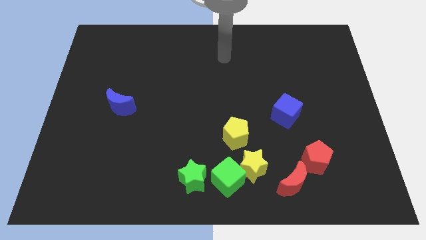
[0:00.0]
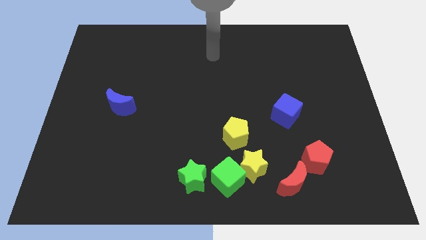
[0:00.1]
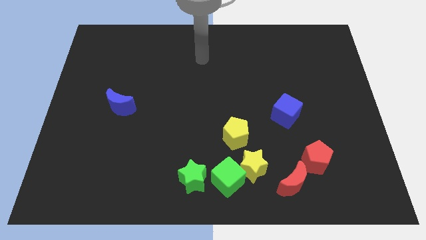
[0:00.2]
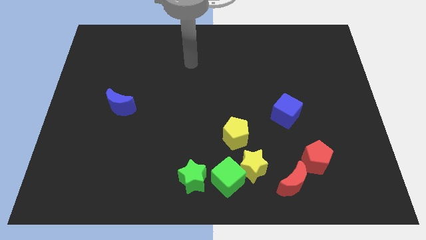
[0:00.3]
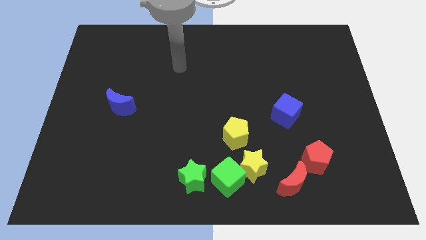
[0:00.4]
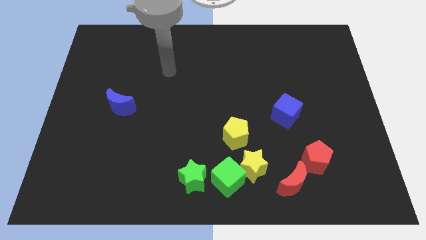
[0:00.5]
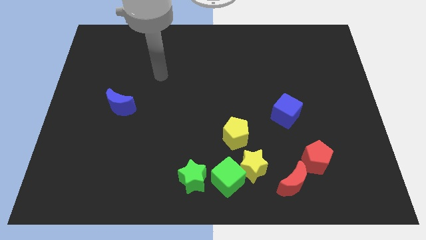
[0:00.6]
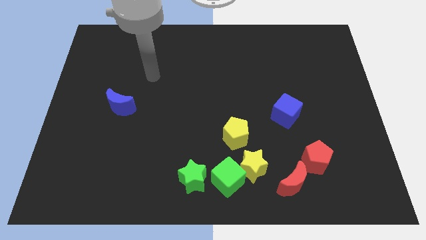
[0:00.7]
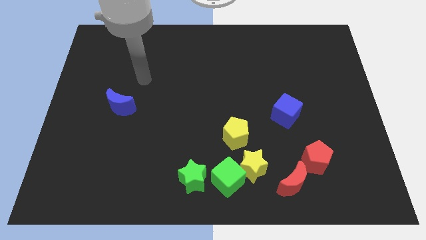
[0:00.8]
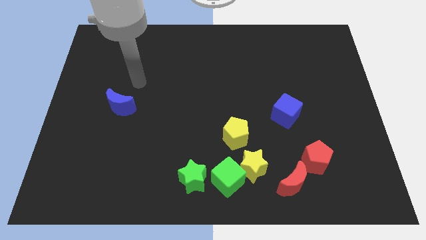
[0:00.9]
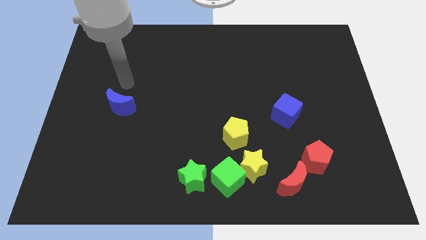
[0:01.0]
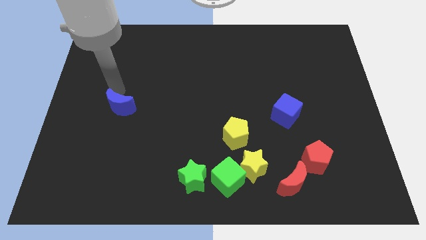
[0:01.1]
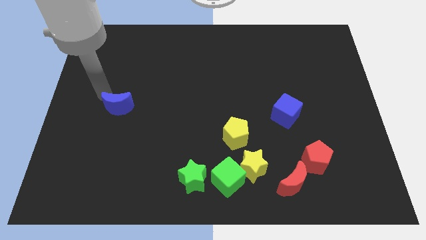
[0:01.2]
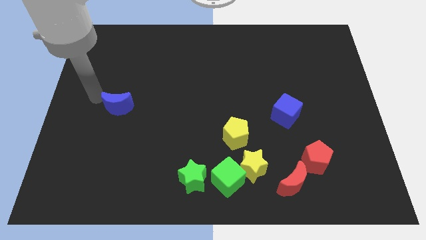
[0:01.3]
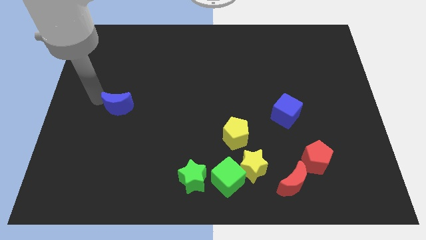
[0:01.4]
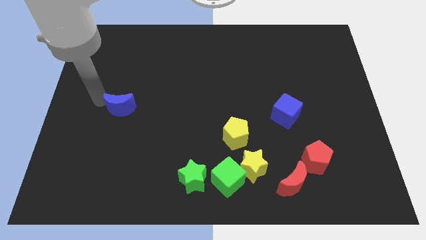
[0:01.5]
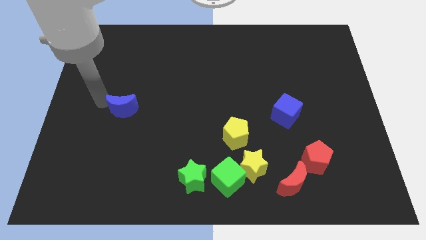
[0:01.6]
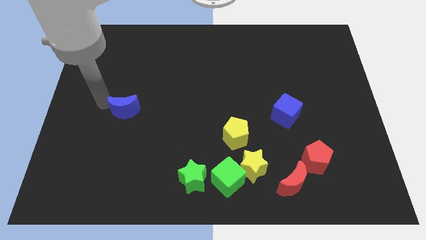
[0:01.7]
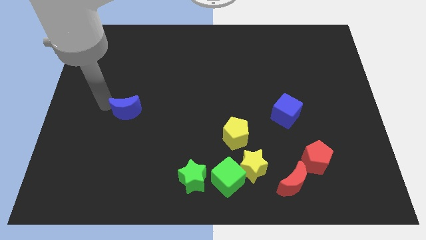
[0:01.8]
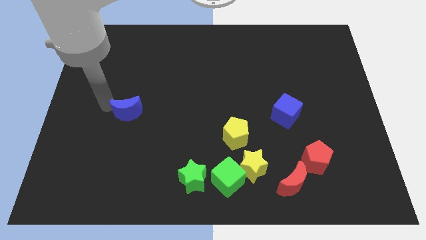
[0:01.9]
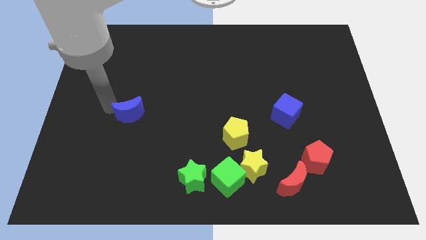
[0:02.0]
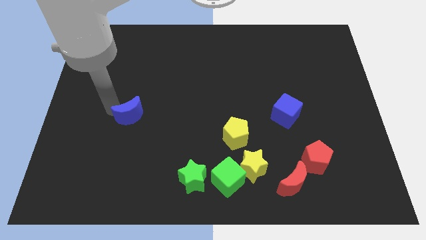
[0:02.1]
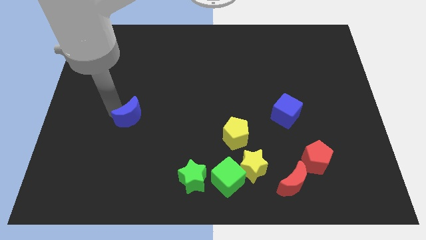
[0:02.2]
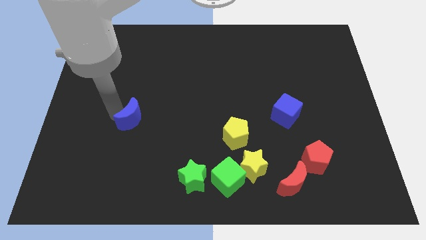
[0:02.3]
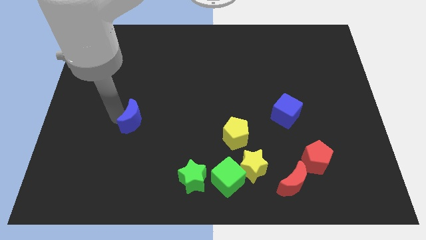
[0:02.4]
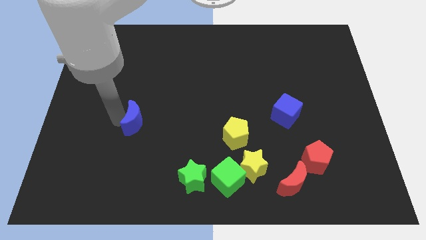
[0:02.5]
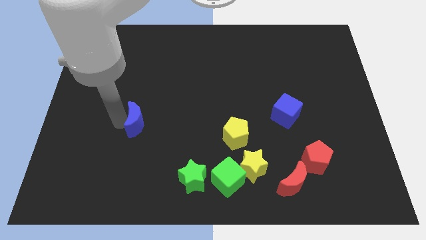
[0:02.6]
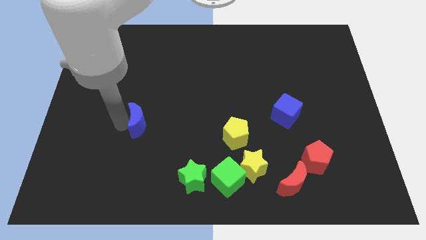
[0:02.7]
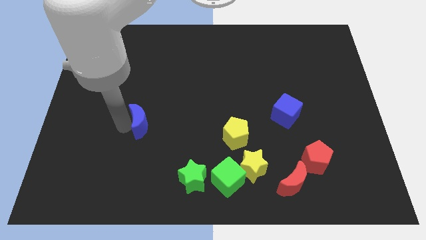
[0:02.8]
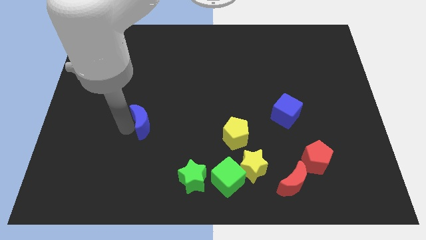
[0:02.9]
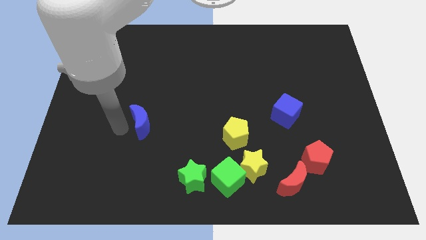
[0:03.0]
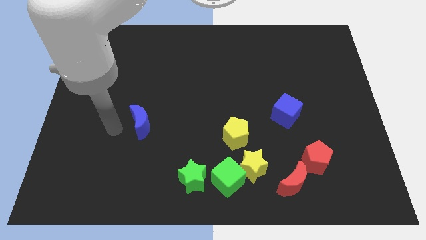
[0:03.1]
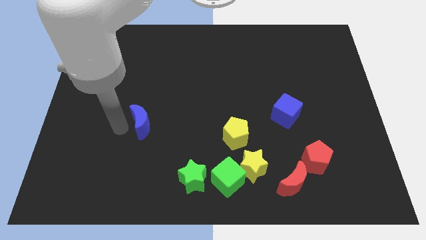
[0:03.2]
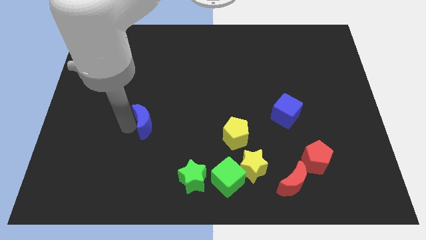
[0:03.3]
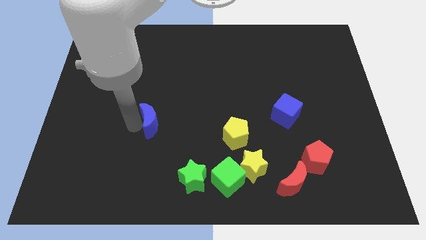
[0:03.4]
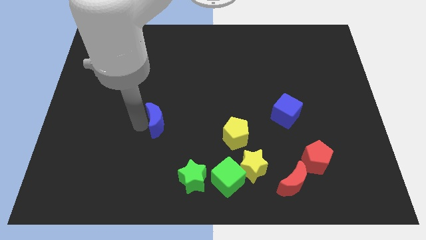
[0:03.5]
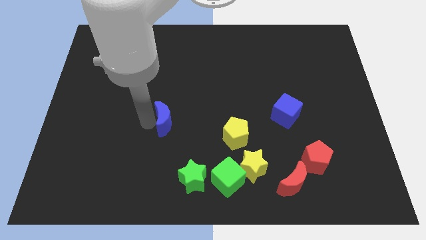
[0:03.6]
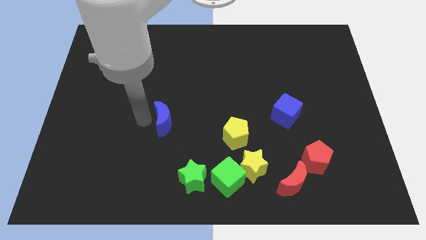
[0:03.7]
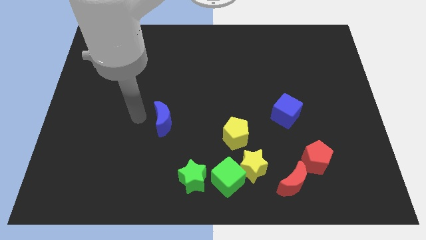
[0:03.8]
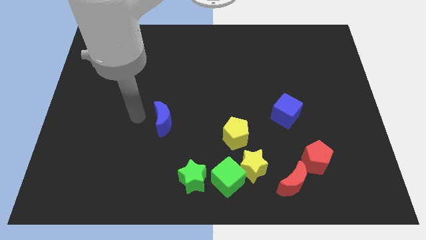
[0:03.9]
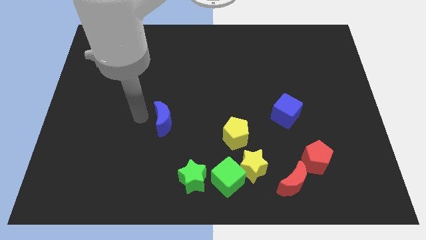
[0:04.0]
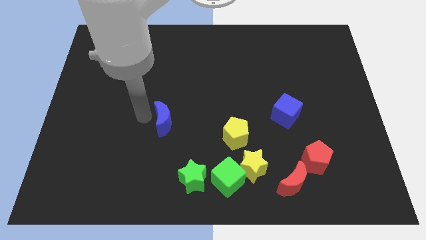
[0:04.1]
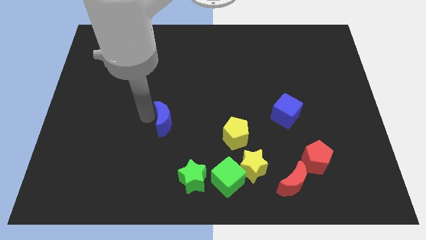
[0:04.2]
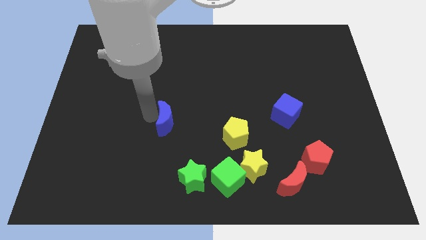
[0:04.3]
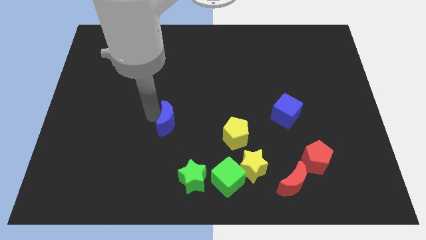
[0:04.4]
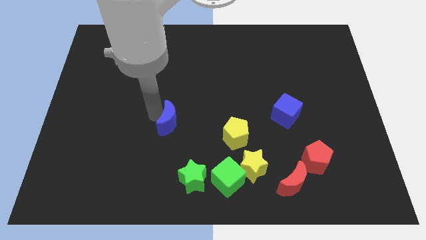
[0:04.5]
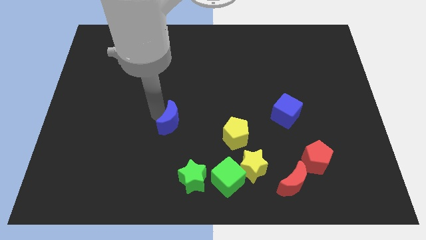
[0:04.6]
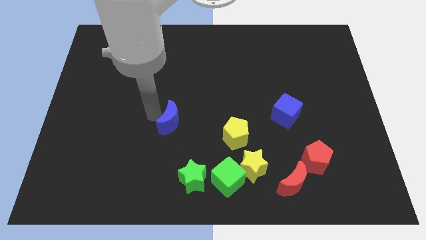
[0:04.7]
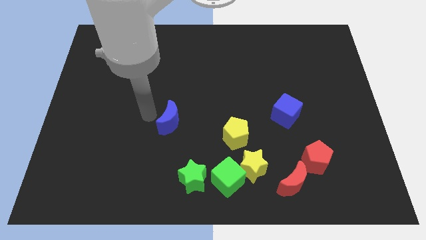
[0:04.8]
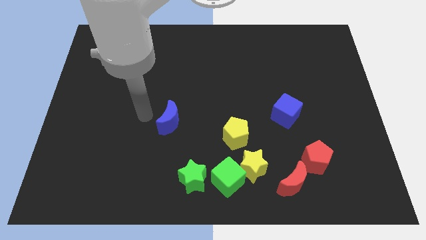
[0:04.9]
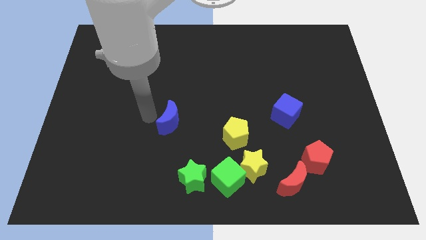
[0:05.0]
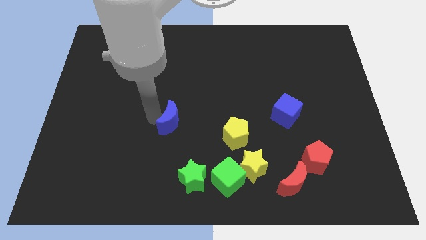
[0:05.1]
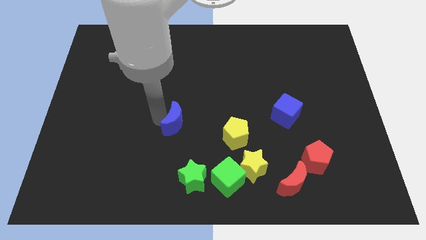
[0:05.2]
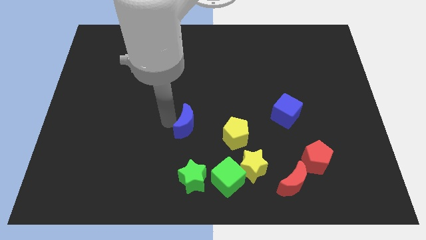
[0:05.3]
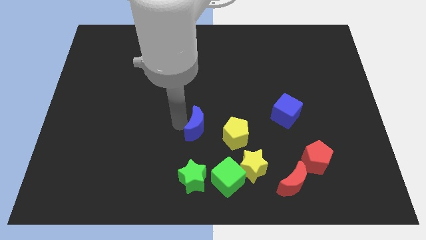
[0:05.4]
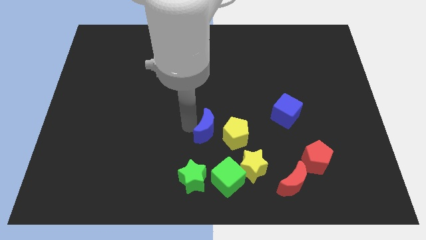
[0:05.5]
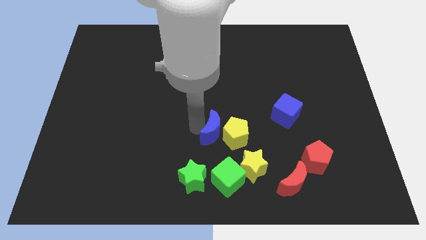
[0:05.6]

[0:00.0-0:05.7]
put the blue moon towards the yellow pentagon

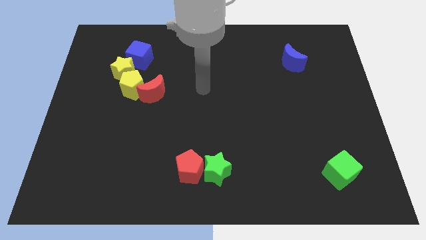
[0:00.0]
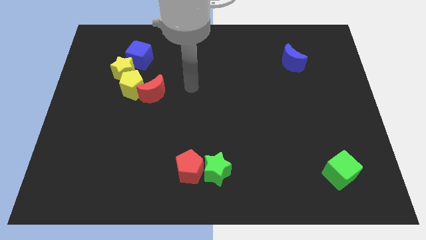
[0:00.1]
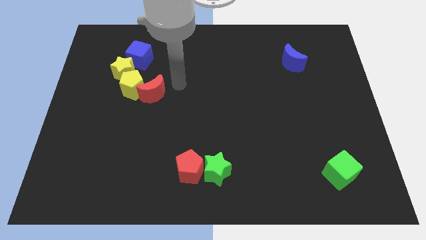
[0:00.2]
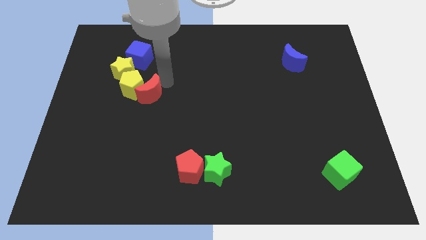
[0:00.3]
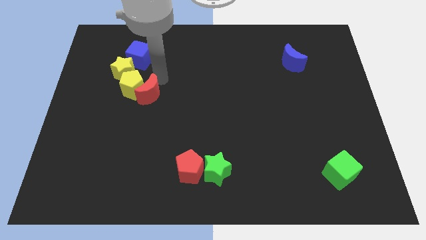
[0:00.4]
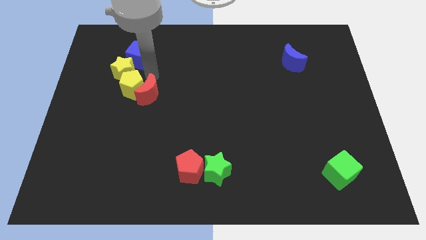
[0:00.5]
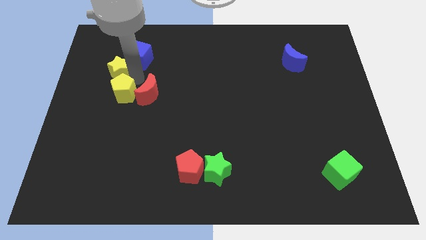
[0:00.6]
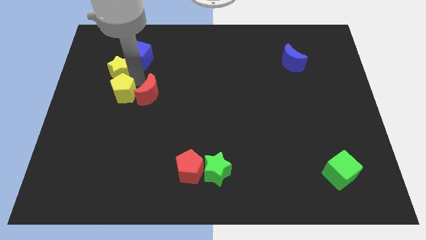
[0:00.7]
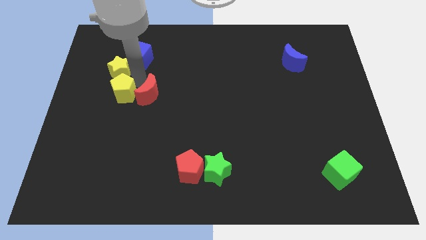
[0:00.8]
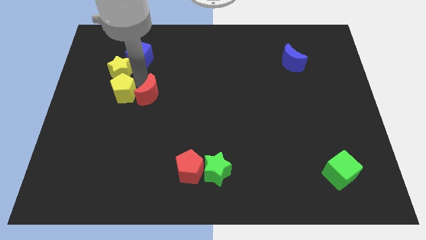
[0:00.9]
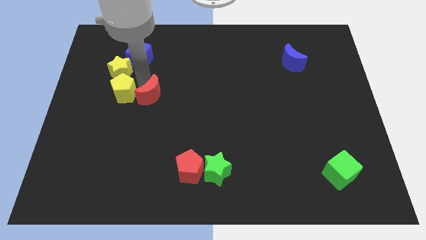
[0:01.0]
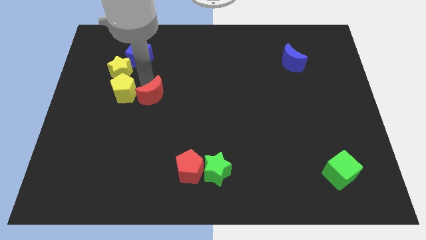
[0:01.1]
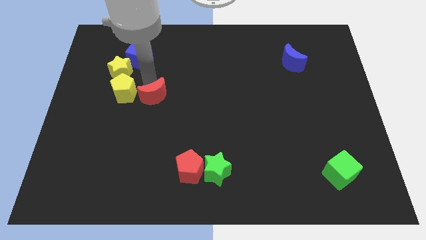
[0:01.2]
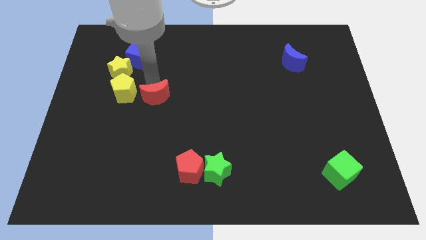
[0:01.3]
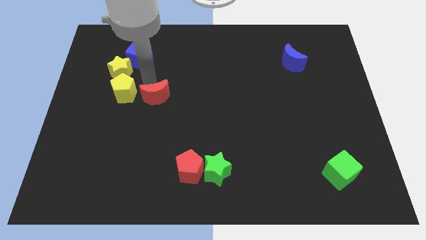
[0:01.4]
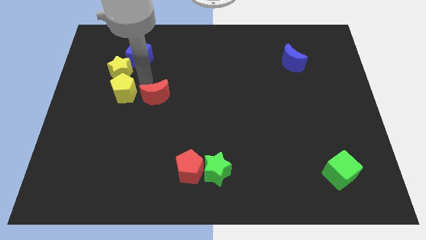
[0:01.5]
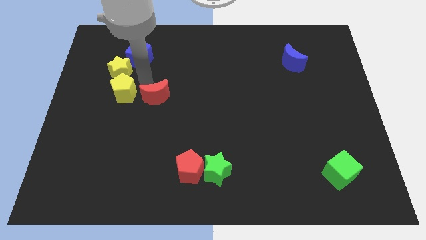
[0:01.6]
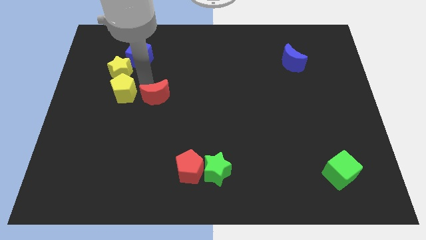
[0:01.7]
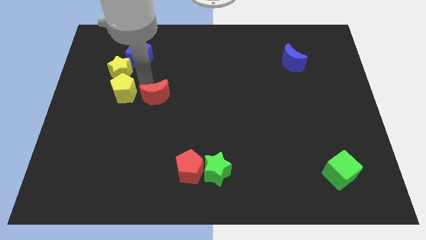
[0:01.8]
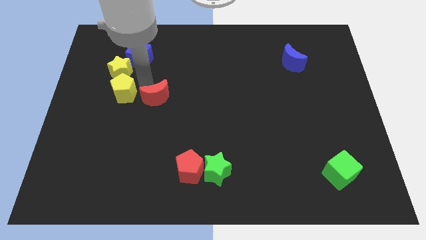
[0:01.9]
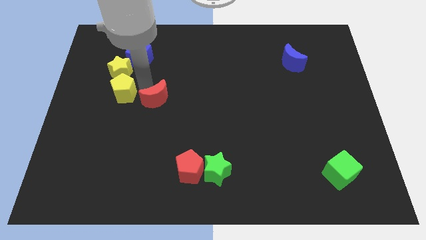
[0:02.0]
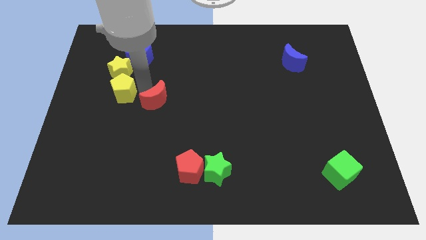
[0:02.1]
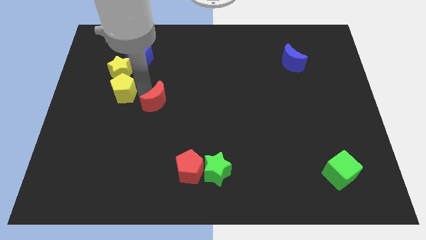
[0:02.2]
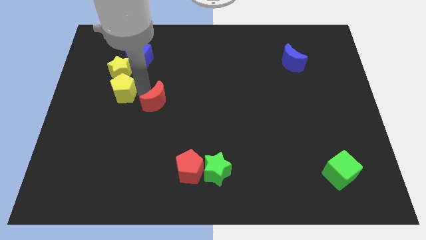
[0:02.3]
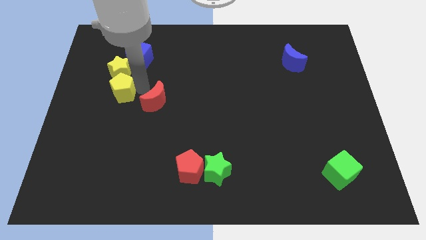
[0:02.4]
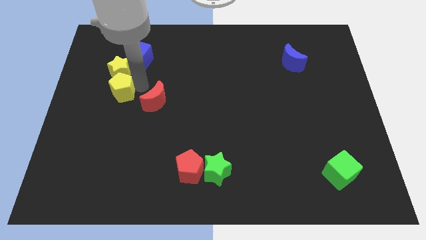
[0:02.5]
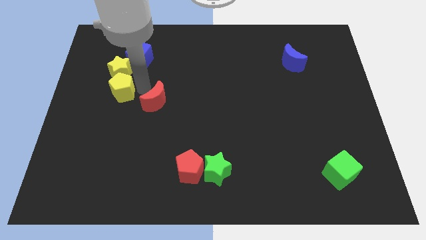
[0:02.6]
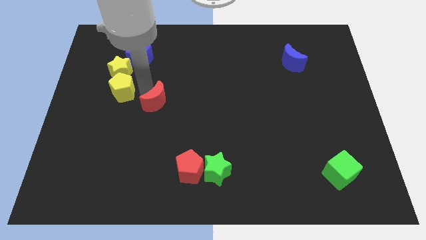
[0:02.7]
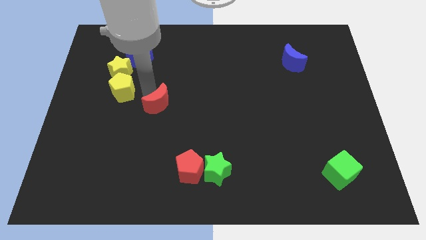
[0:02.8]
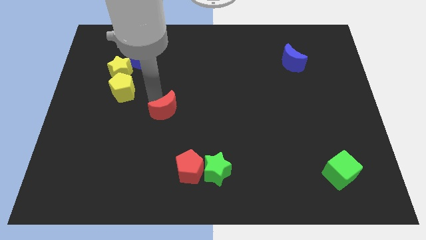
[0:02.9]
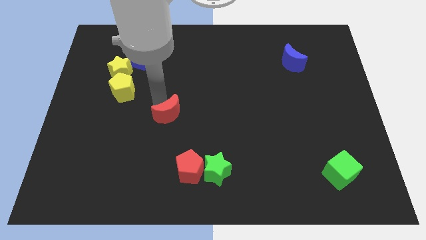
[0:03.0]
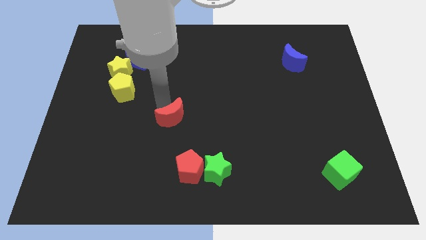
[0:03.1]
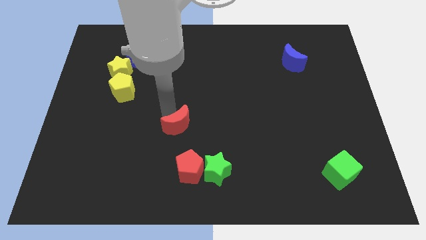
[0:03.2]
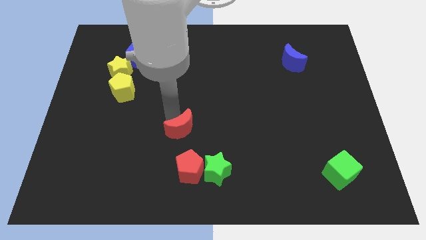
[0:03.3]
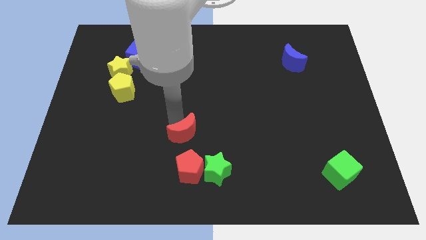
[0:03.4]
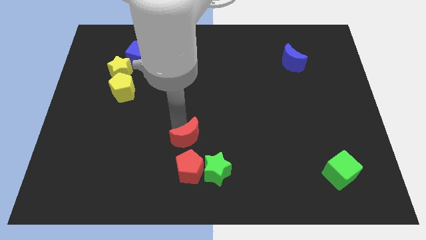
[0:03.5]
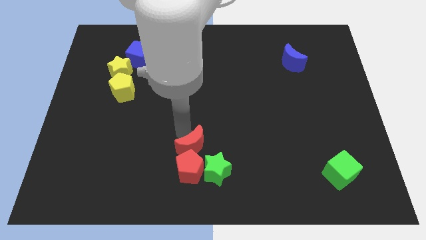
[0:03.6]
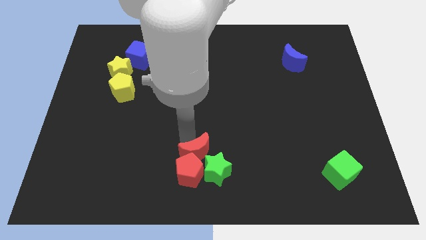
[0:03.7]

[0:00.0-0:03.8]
slide the red moon towards the green star
